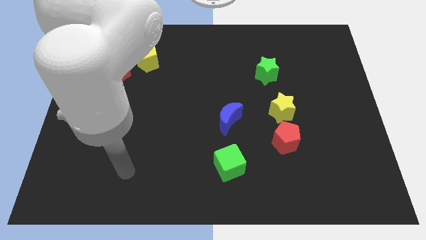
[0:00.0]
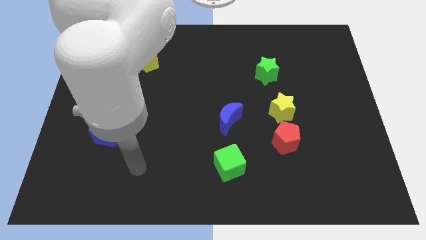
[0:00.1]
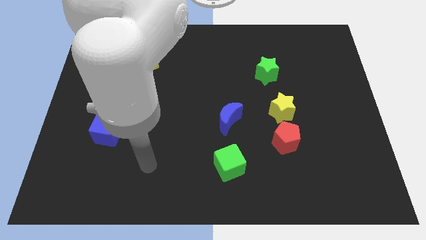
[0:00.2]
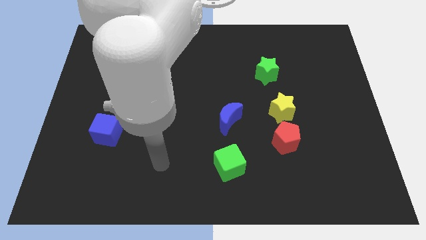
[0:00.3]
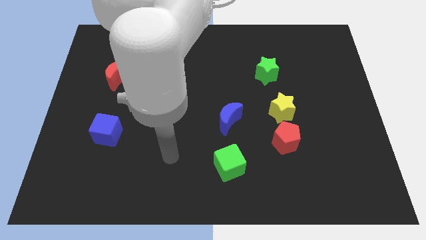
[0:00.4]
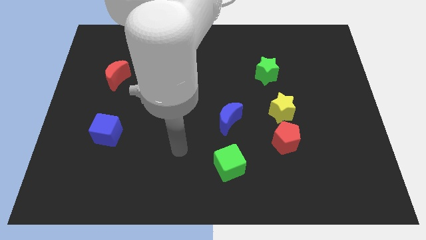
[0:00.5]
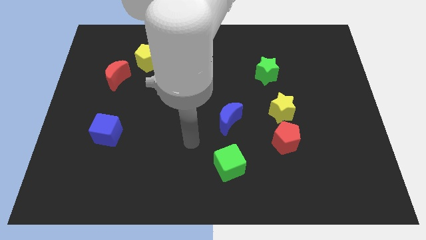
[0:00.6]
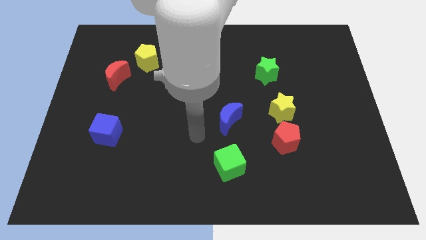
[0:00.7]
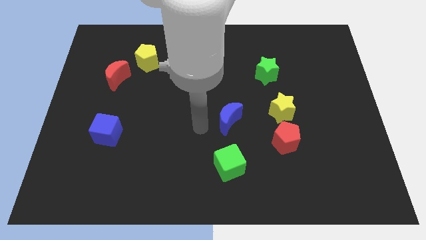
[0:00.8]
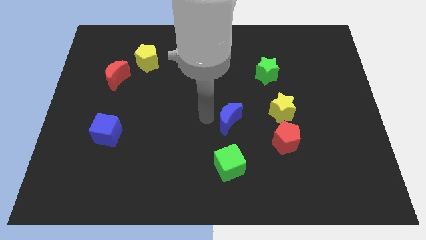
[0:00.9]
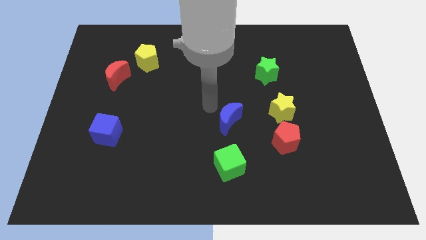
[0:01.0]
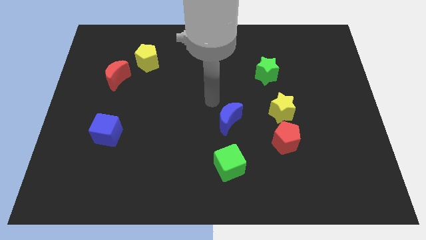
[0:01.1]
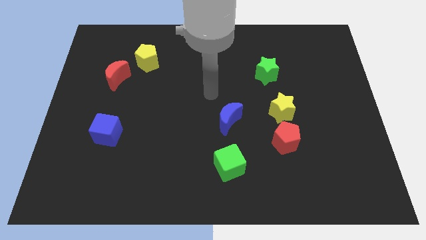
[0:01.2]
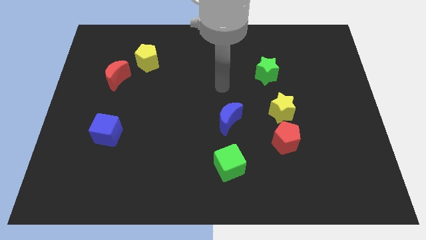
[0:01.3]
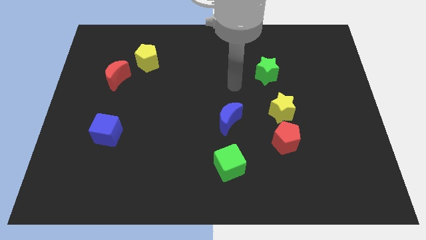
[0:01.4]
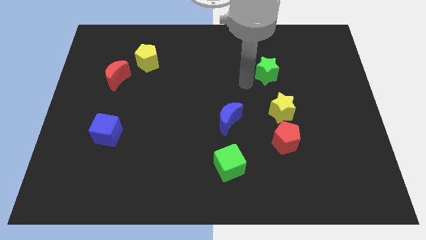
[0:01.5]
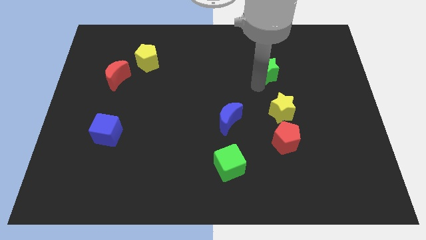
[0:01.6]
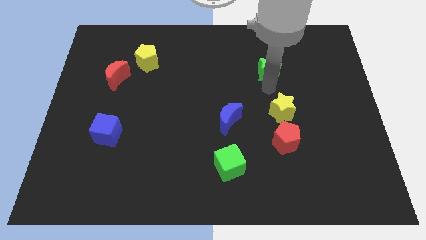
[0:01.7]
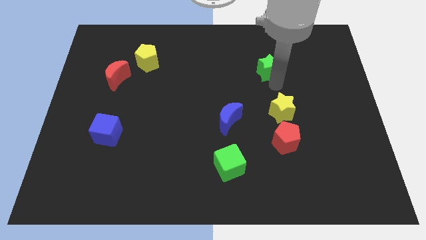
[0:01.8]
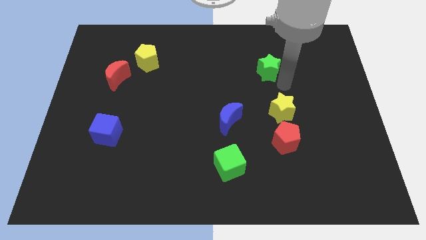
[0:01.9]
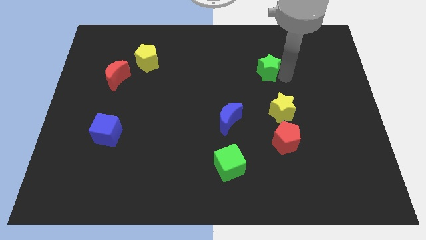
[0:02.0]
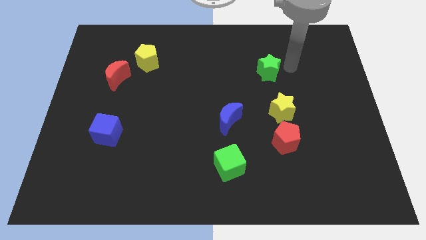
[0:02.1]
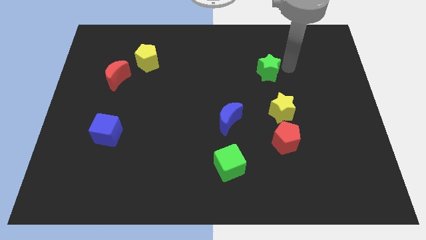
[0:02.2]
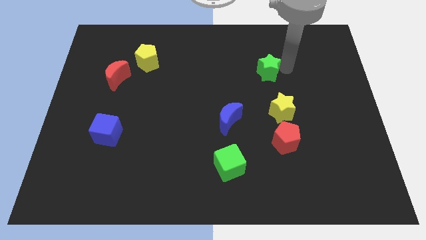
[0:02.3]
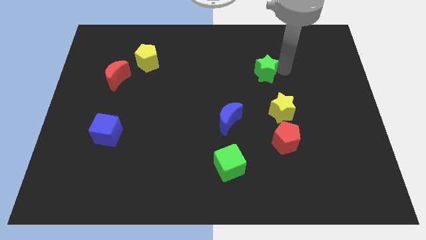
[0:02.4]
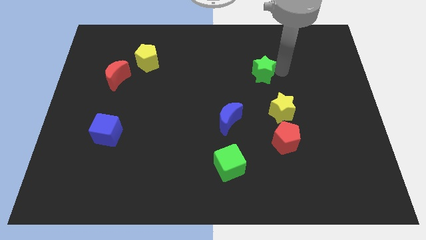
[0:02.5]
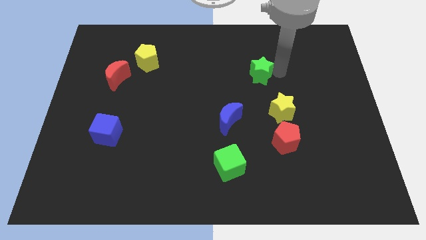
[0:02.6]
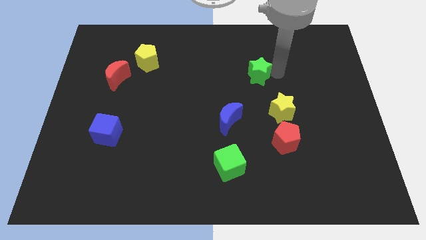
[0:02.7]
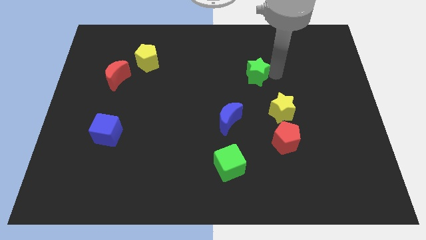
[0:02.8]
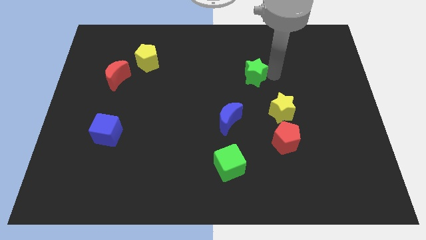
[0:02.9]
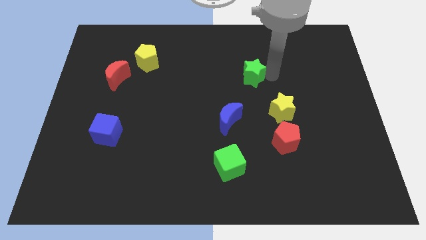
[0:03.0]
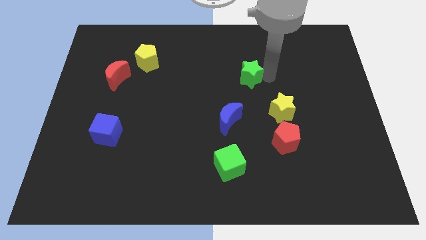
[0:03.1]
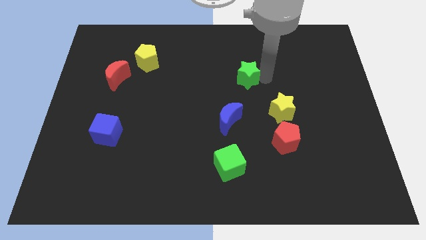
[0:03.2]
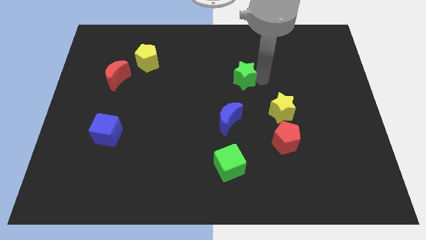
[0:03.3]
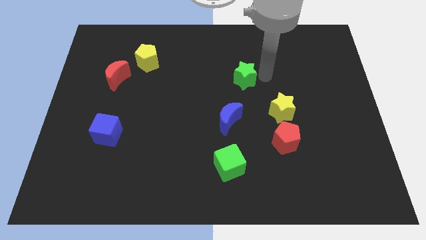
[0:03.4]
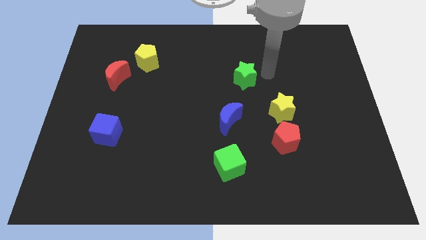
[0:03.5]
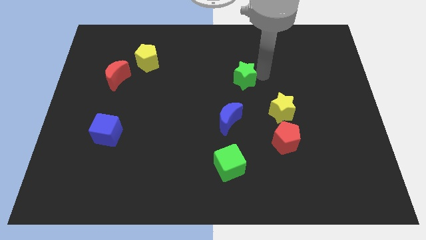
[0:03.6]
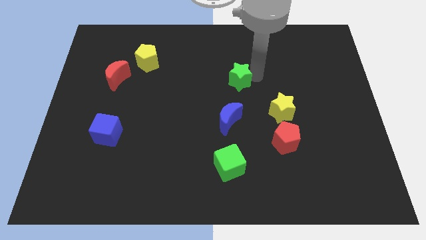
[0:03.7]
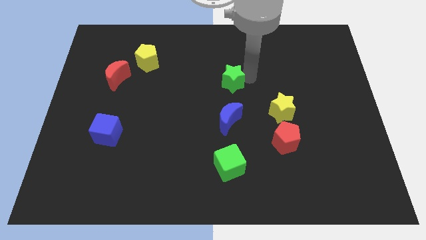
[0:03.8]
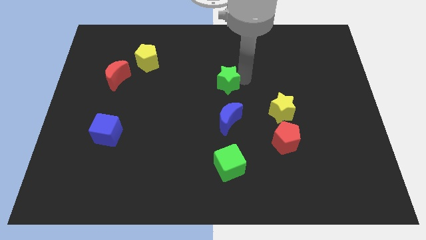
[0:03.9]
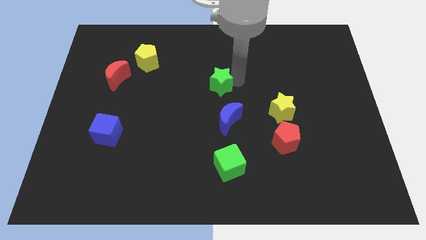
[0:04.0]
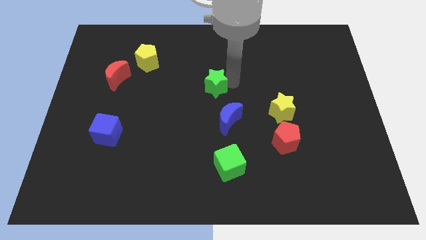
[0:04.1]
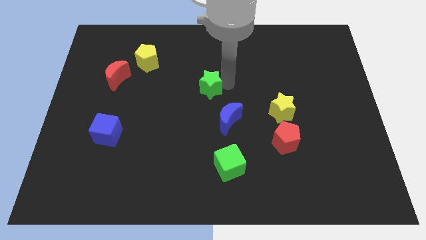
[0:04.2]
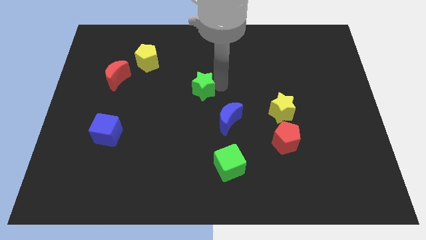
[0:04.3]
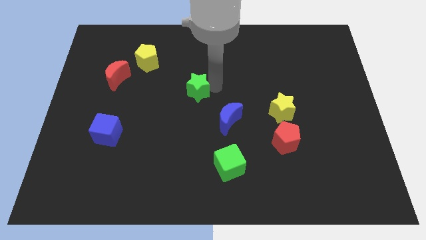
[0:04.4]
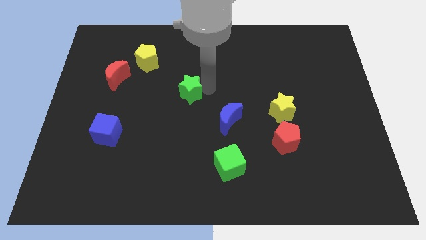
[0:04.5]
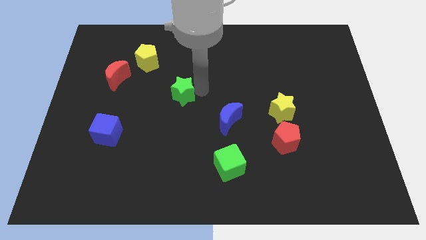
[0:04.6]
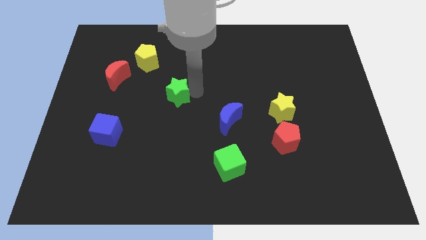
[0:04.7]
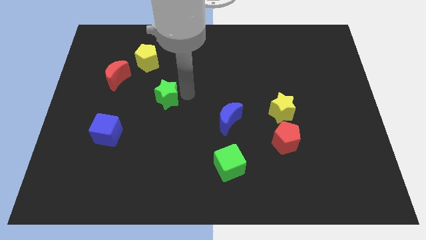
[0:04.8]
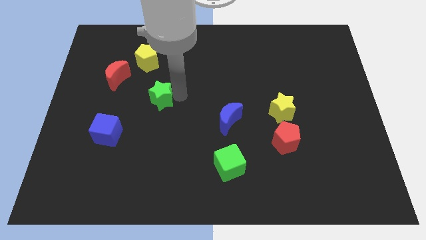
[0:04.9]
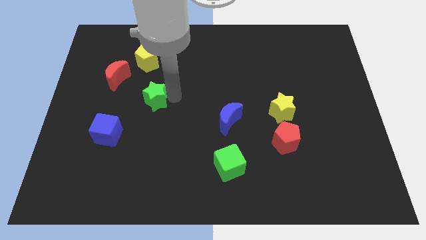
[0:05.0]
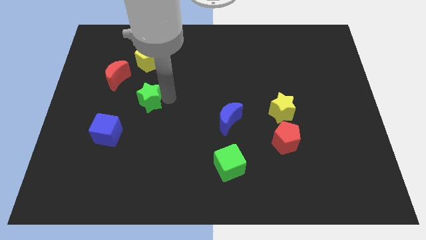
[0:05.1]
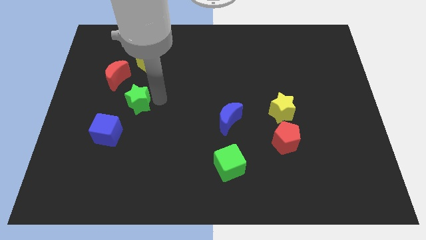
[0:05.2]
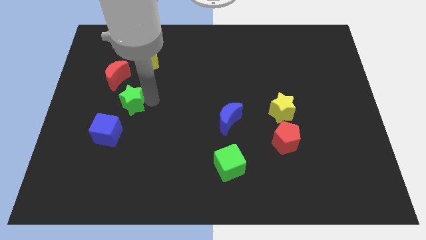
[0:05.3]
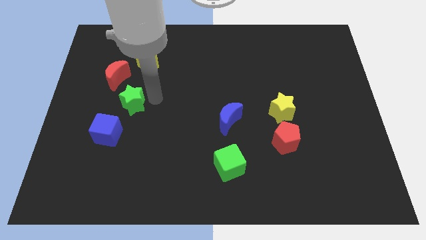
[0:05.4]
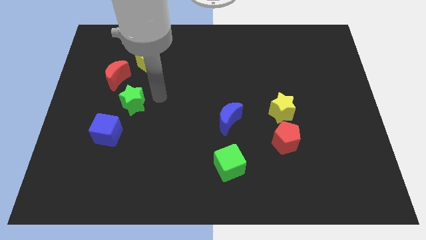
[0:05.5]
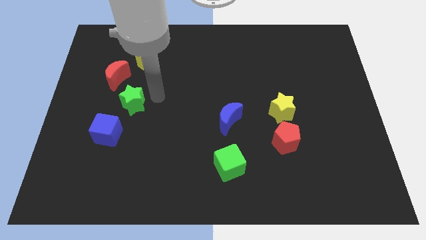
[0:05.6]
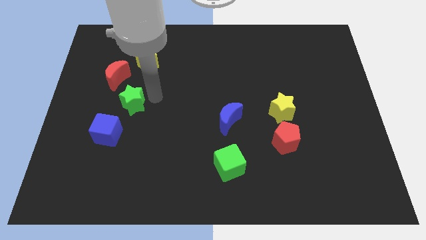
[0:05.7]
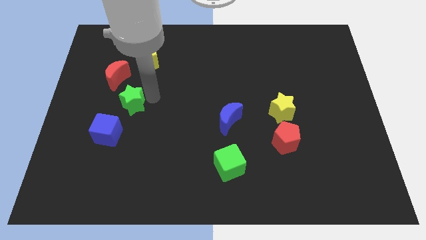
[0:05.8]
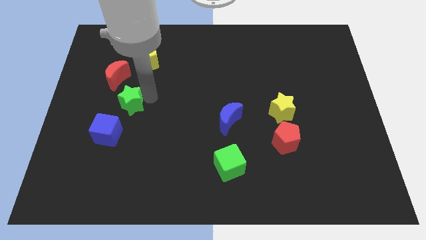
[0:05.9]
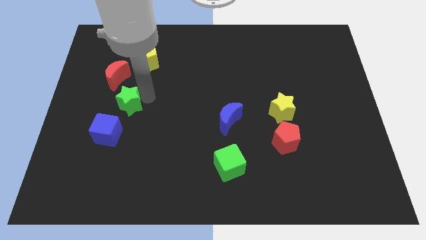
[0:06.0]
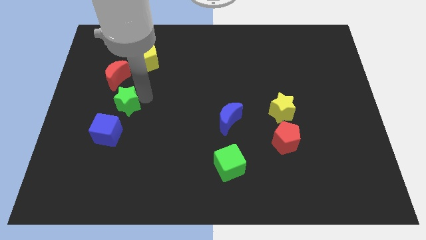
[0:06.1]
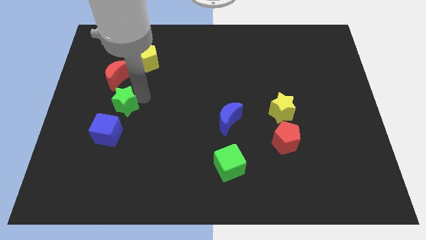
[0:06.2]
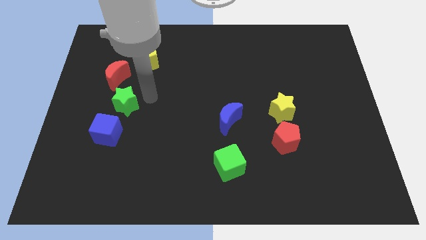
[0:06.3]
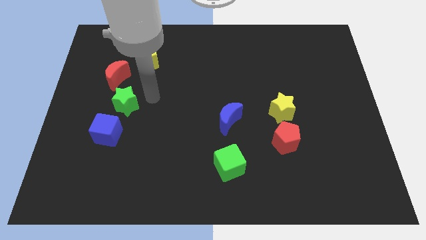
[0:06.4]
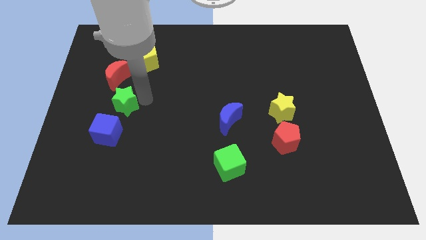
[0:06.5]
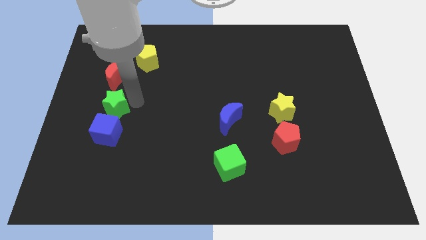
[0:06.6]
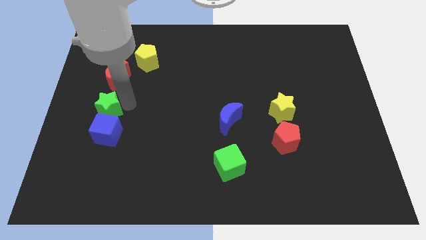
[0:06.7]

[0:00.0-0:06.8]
move the green star diagonally up and to the left of the blue cube
